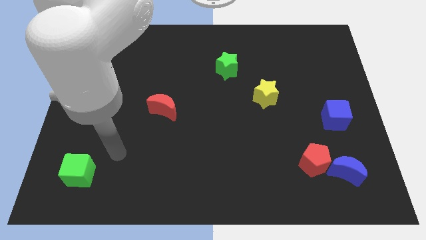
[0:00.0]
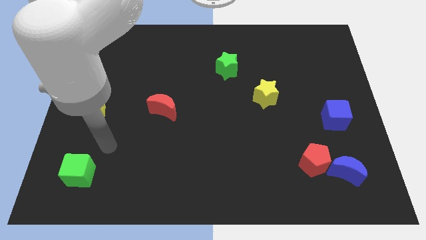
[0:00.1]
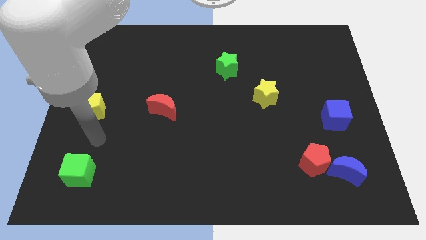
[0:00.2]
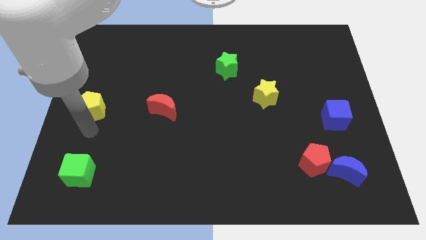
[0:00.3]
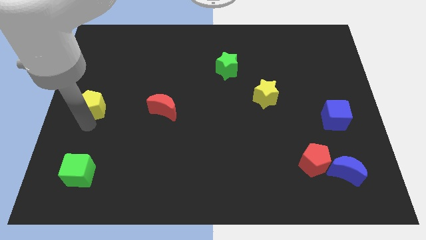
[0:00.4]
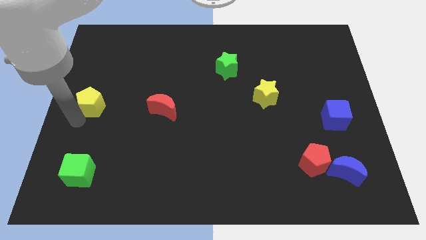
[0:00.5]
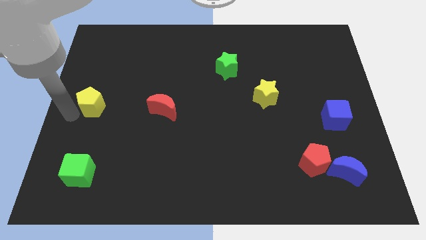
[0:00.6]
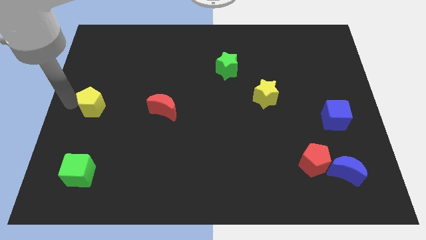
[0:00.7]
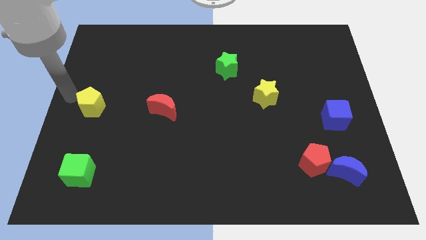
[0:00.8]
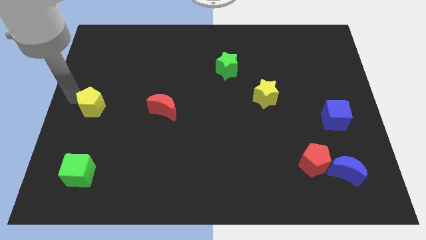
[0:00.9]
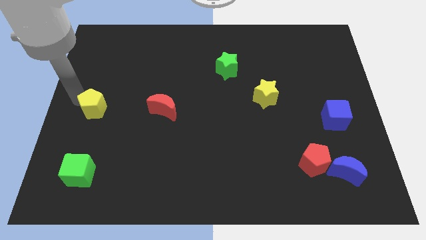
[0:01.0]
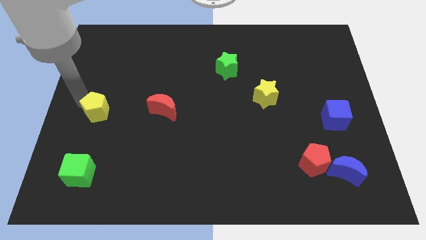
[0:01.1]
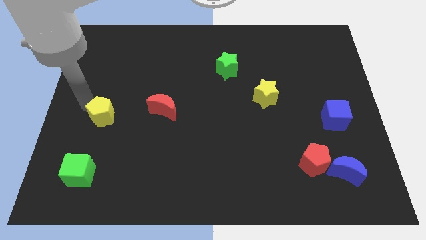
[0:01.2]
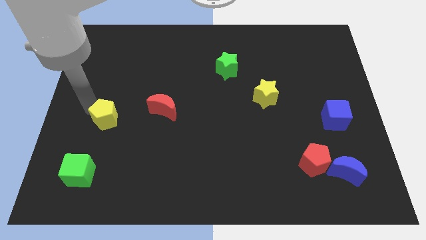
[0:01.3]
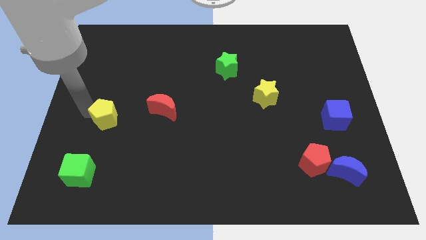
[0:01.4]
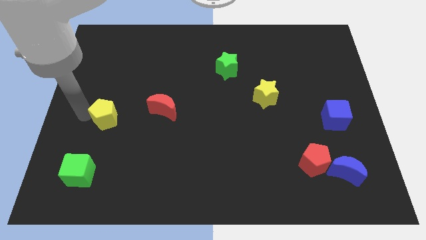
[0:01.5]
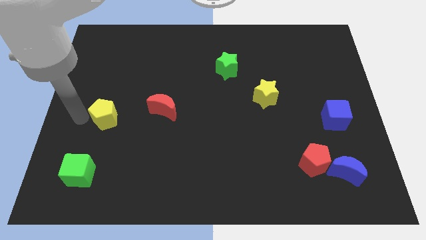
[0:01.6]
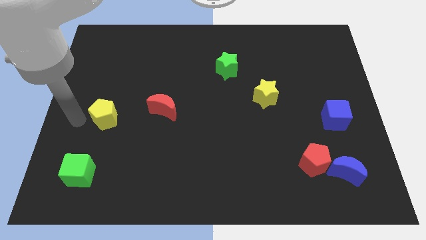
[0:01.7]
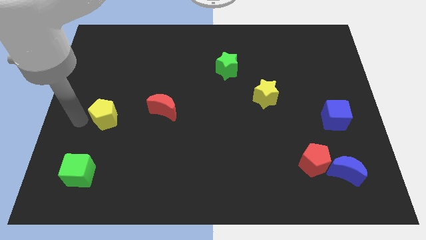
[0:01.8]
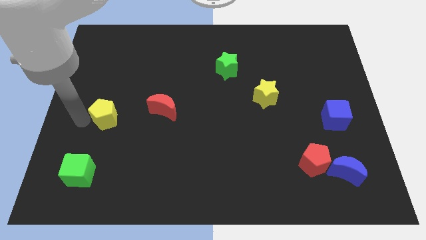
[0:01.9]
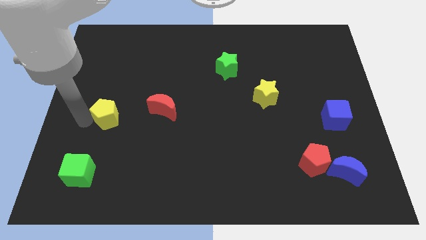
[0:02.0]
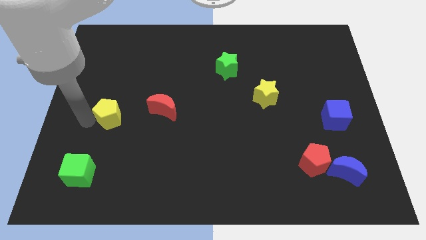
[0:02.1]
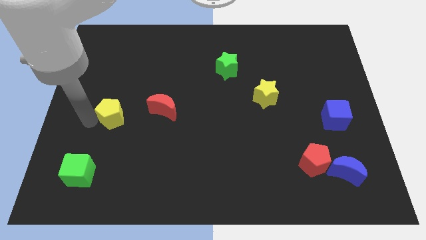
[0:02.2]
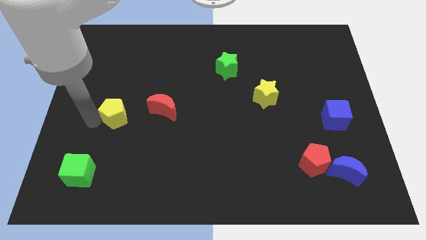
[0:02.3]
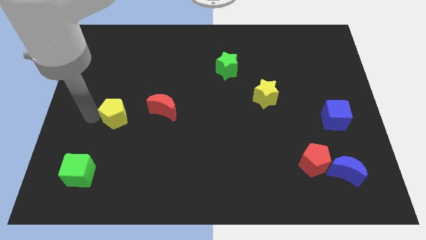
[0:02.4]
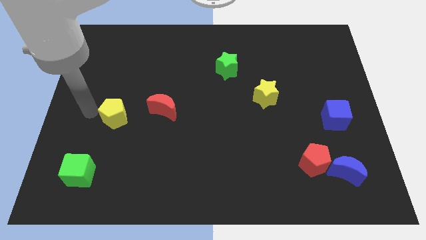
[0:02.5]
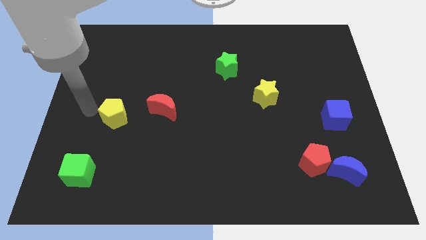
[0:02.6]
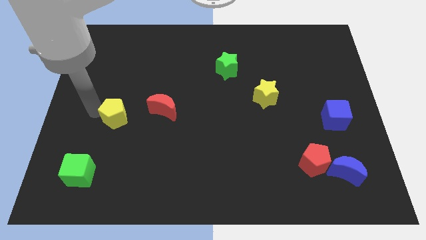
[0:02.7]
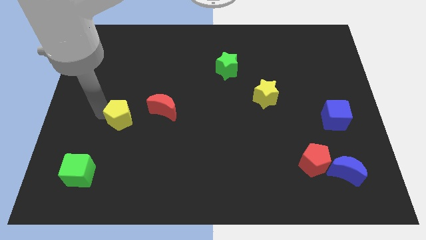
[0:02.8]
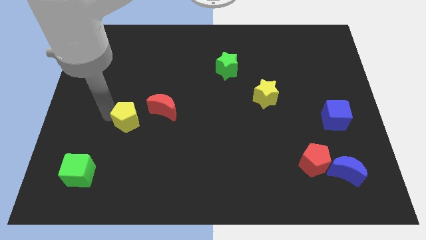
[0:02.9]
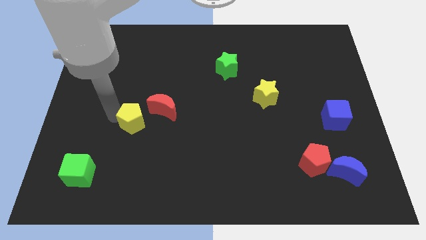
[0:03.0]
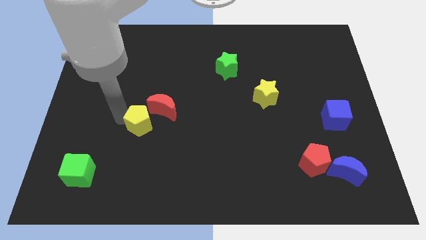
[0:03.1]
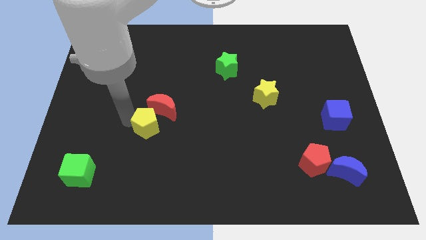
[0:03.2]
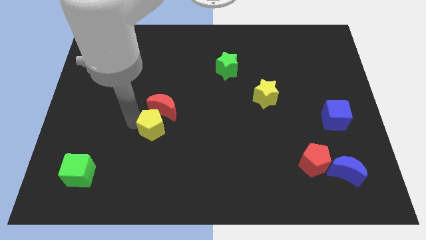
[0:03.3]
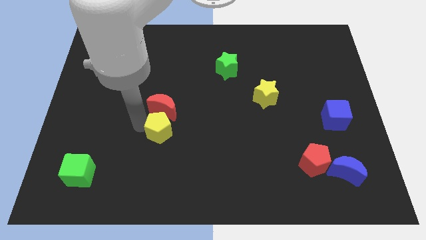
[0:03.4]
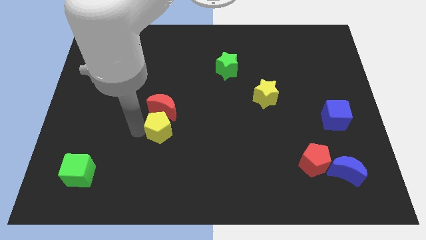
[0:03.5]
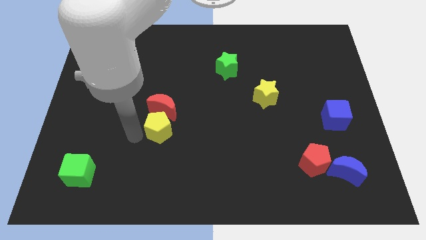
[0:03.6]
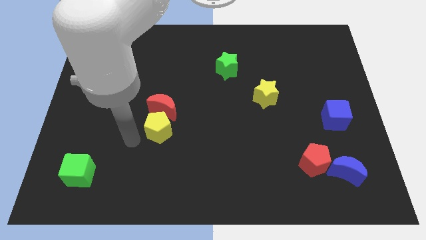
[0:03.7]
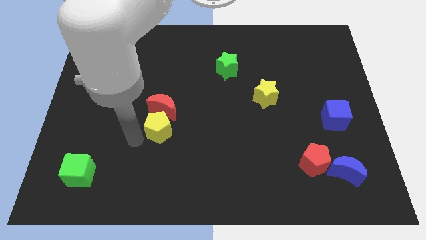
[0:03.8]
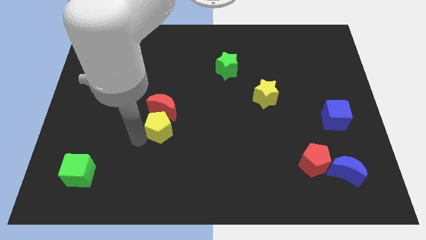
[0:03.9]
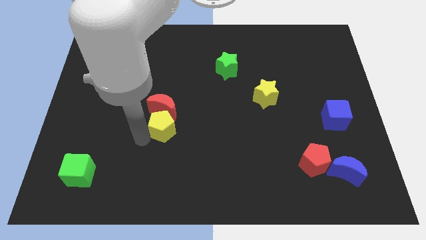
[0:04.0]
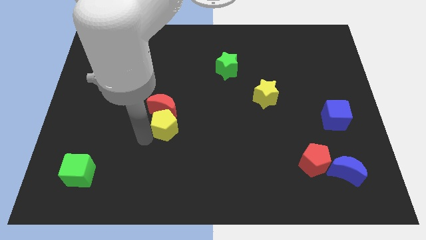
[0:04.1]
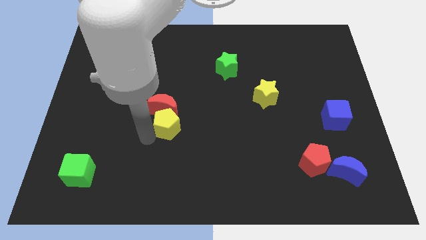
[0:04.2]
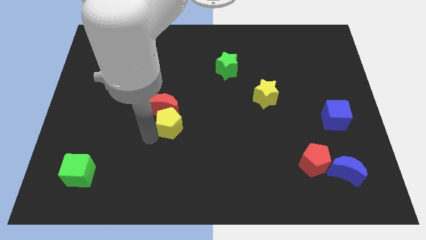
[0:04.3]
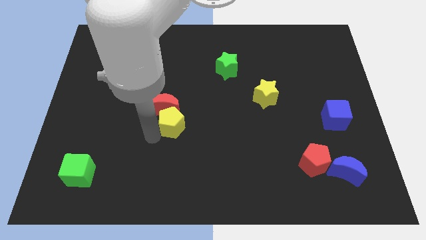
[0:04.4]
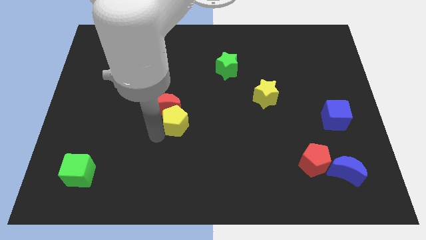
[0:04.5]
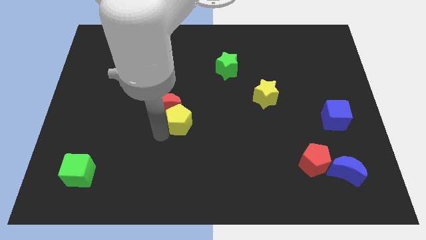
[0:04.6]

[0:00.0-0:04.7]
put the yellow pentagon right of the red moon

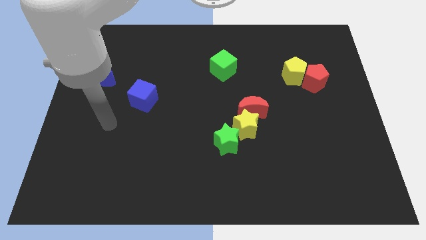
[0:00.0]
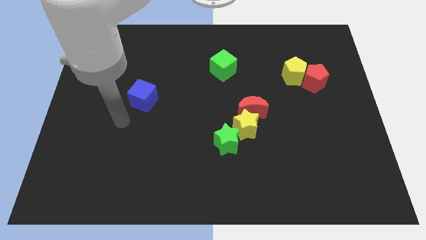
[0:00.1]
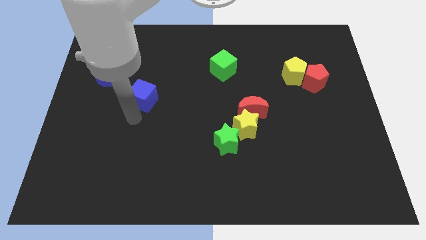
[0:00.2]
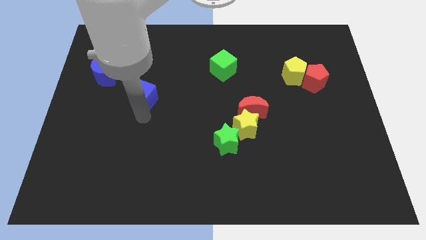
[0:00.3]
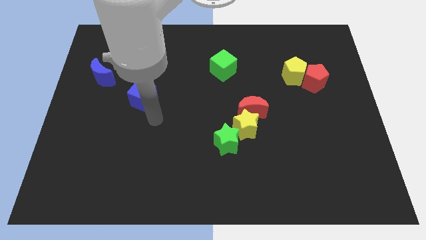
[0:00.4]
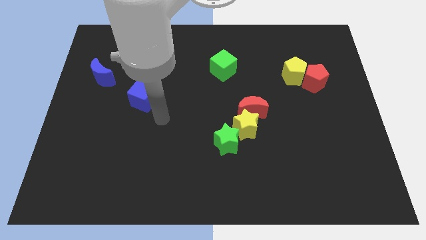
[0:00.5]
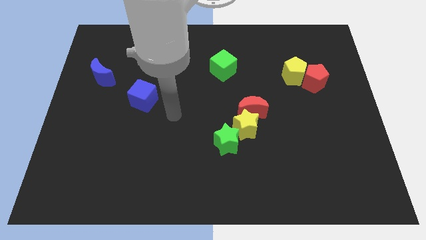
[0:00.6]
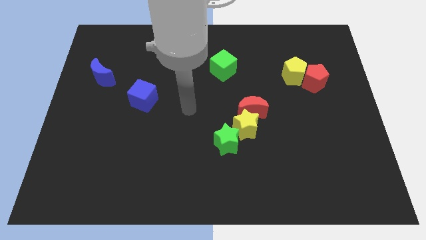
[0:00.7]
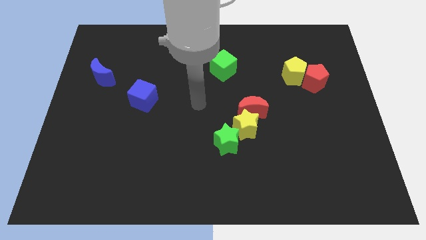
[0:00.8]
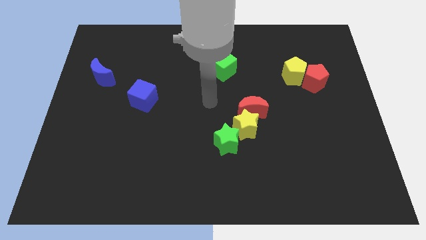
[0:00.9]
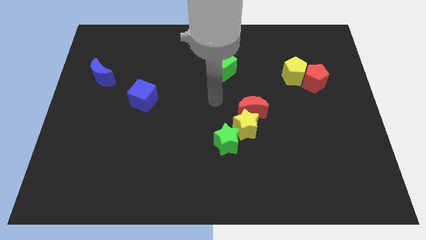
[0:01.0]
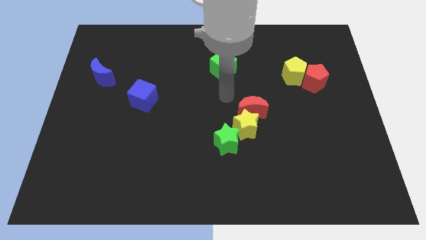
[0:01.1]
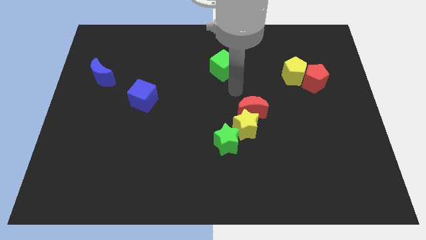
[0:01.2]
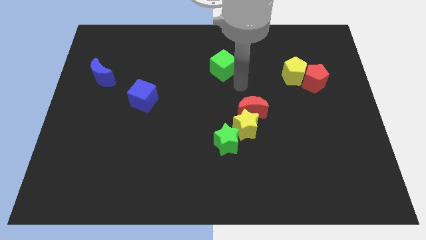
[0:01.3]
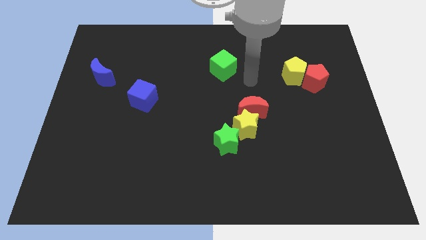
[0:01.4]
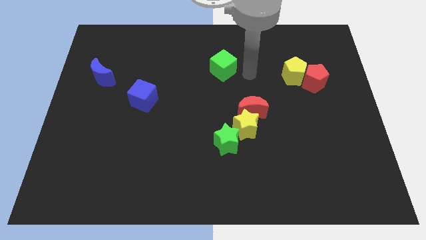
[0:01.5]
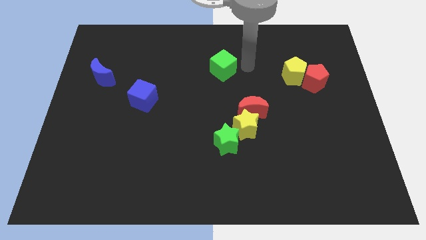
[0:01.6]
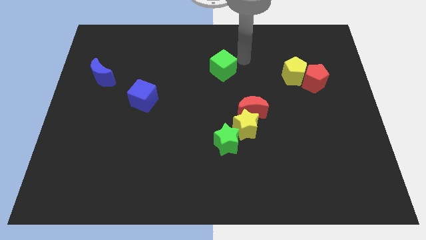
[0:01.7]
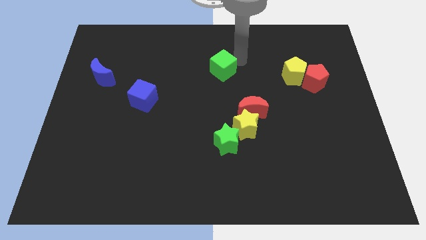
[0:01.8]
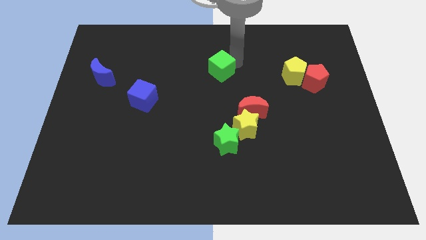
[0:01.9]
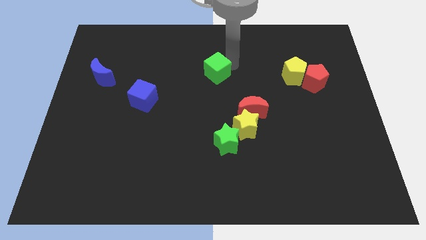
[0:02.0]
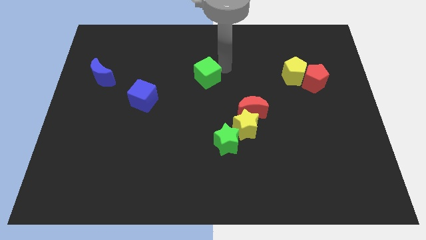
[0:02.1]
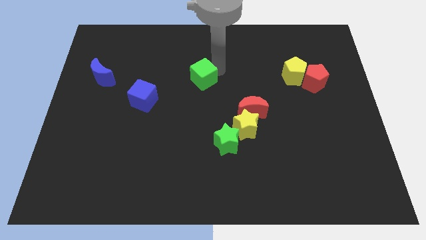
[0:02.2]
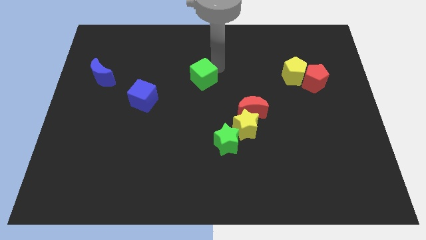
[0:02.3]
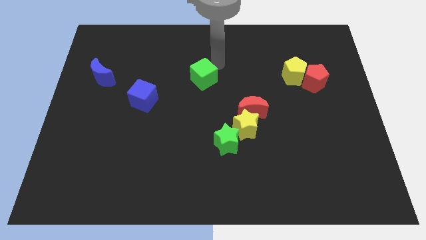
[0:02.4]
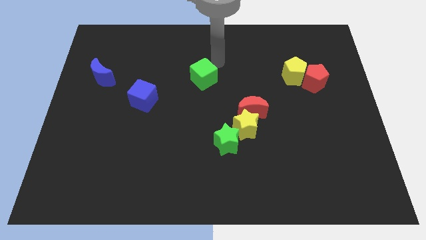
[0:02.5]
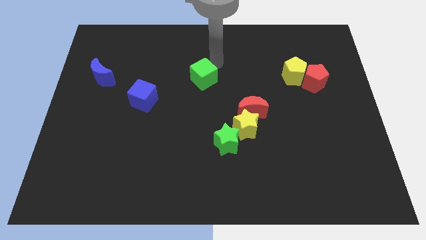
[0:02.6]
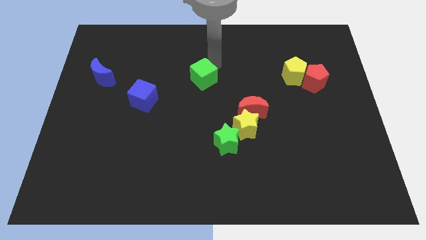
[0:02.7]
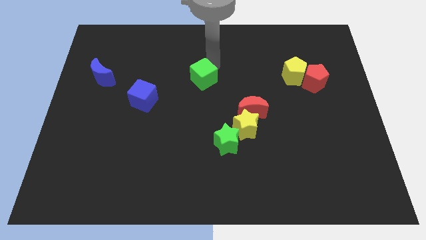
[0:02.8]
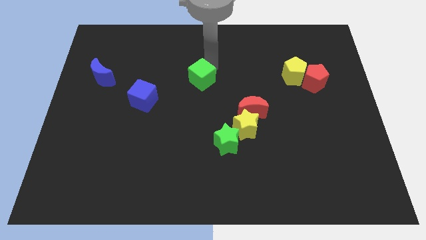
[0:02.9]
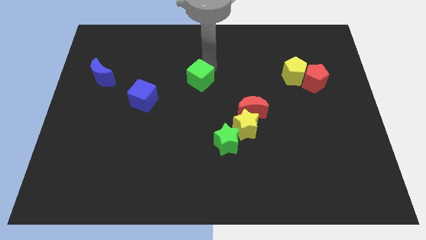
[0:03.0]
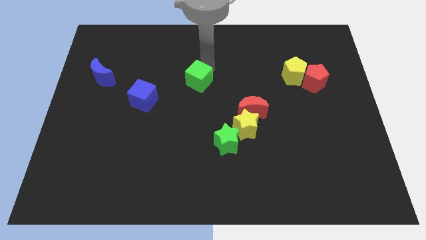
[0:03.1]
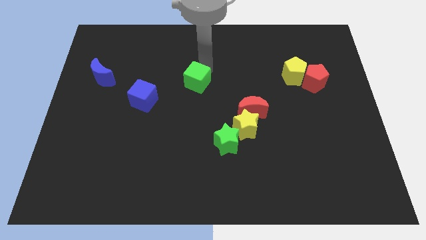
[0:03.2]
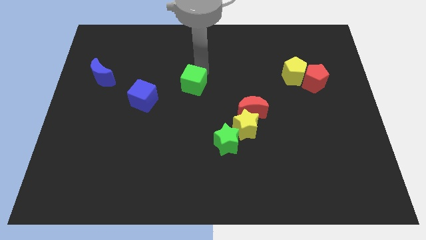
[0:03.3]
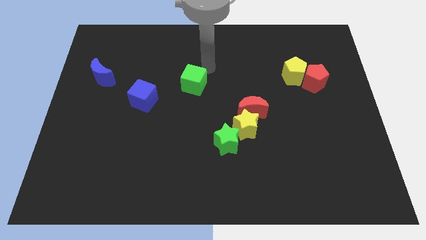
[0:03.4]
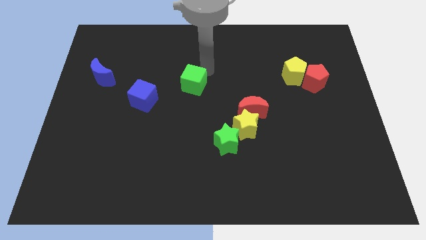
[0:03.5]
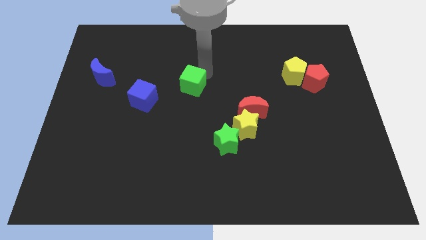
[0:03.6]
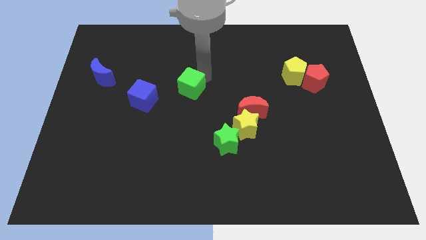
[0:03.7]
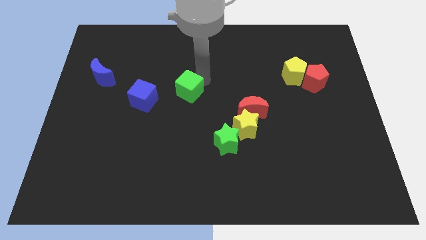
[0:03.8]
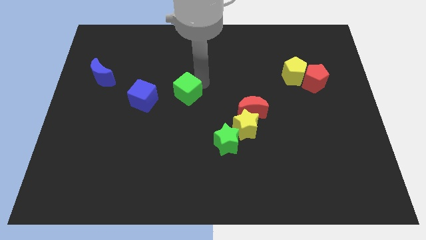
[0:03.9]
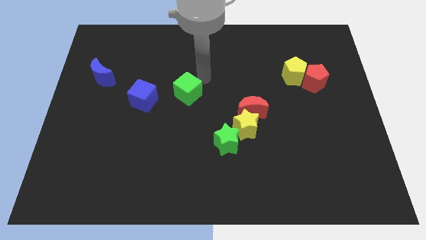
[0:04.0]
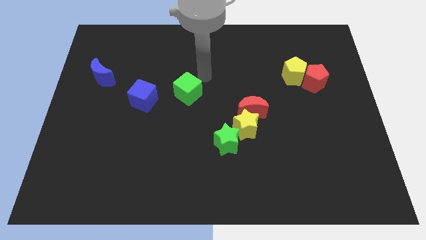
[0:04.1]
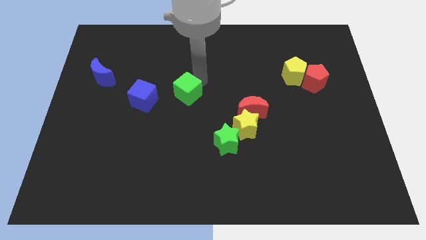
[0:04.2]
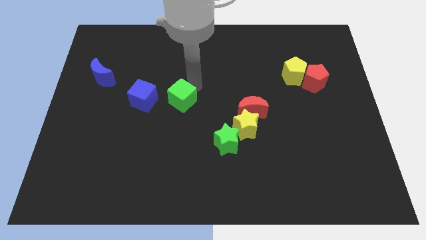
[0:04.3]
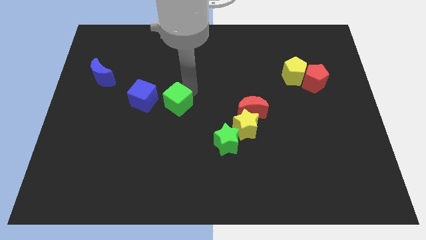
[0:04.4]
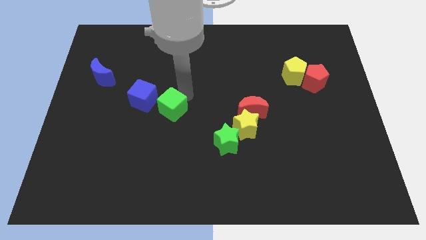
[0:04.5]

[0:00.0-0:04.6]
push the green cube to the bottom right side of the blue cube
